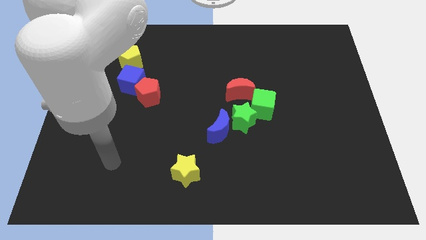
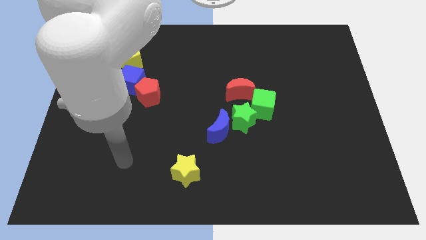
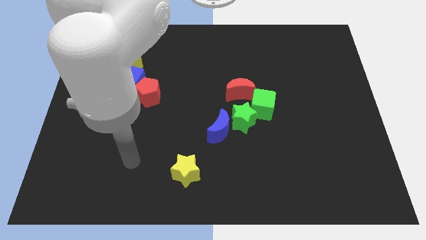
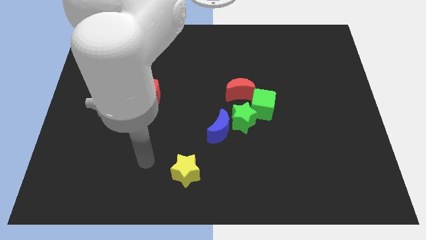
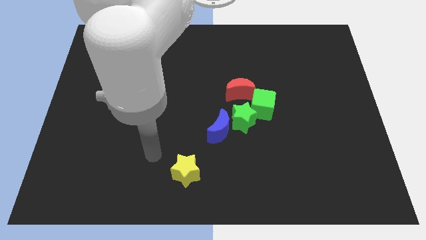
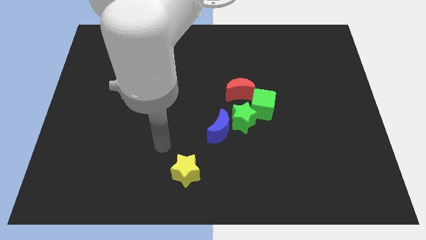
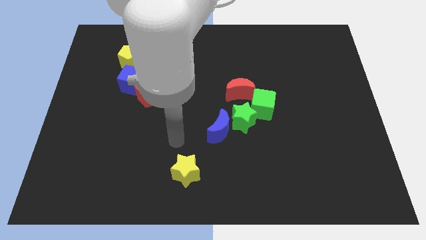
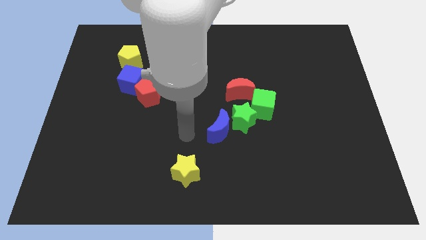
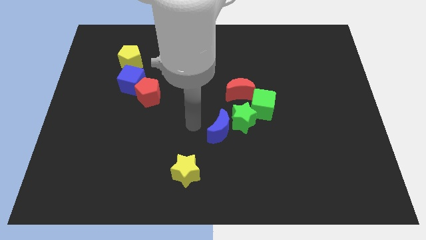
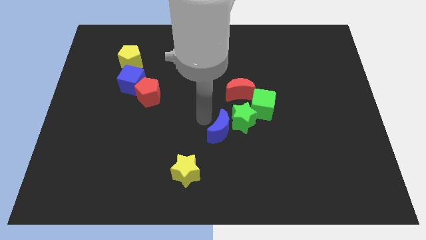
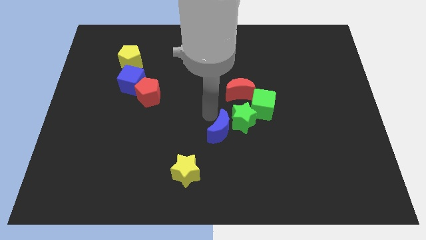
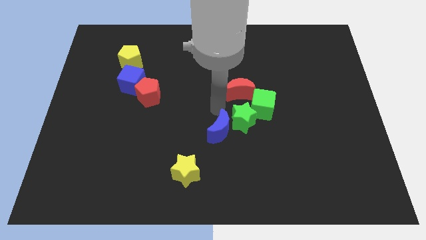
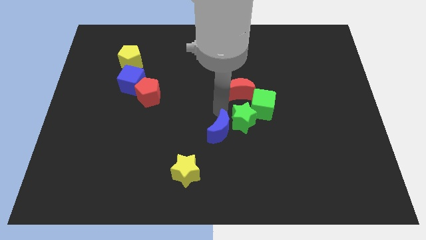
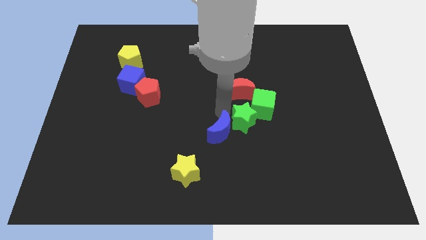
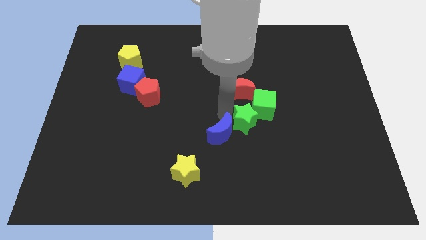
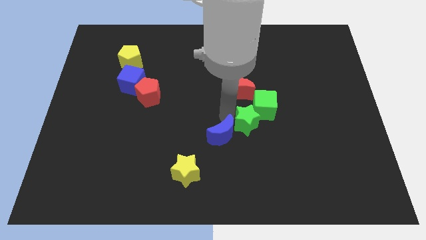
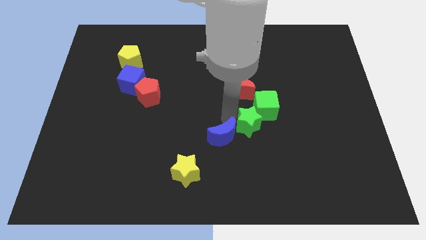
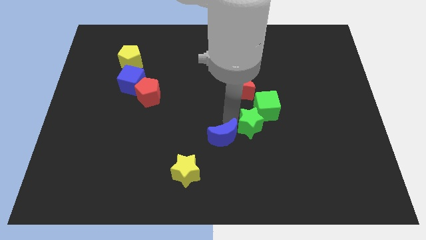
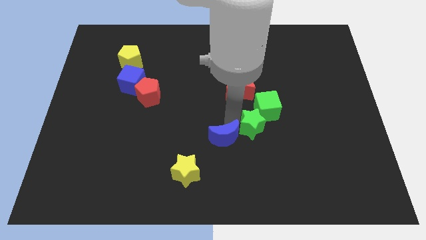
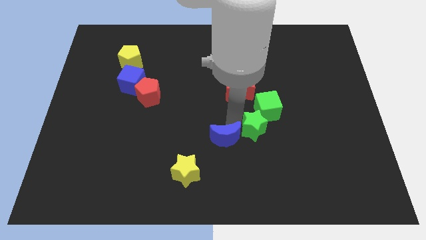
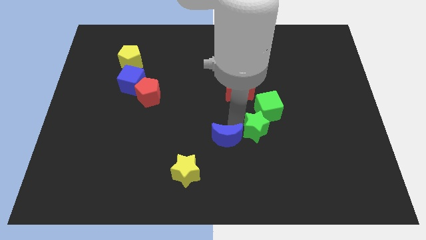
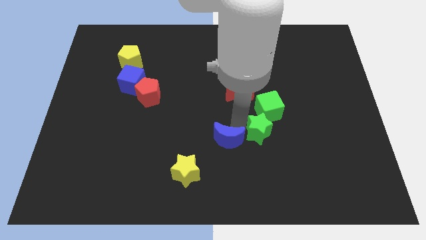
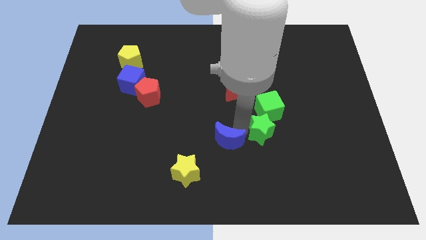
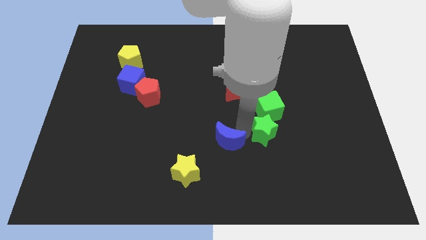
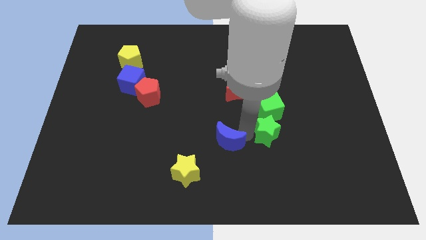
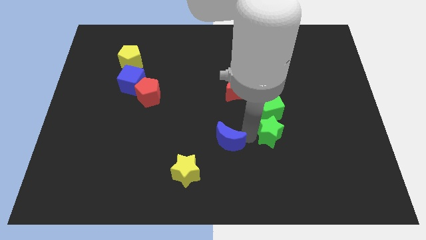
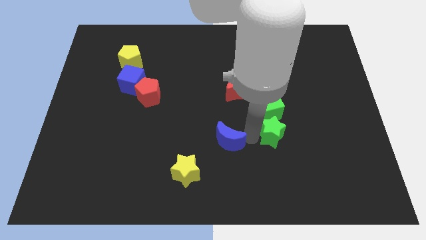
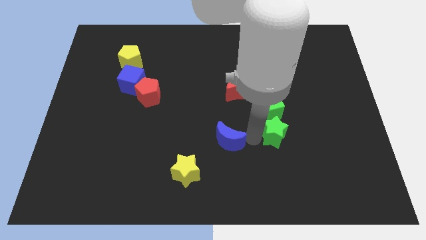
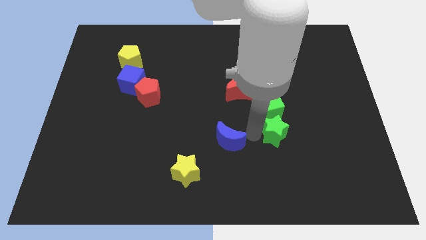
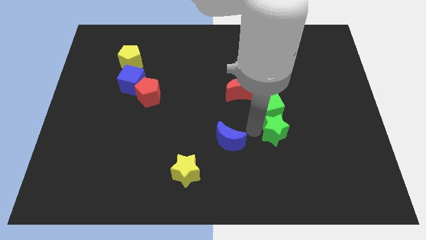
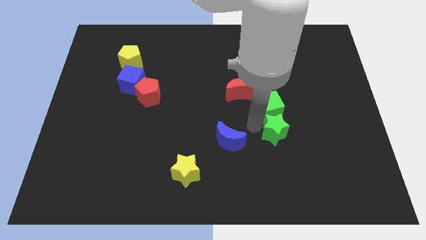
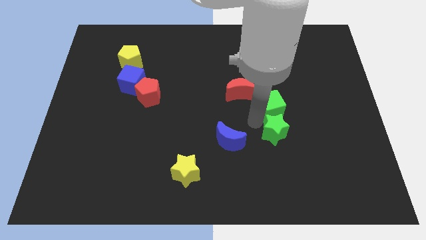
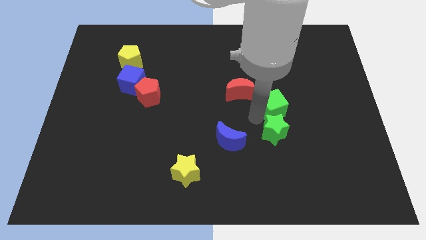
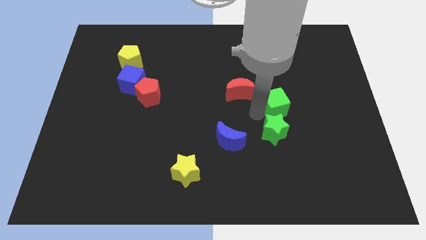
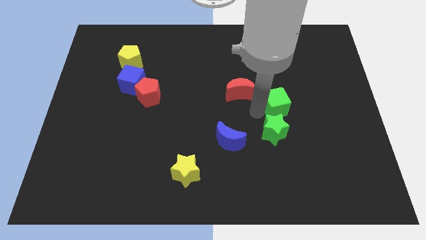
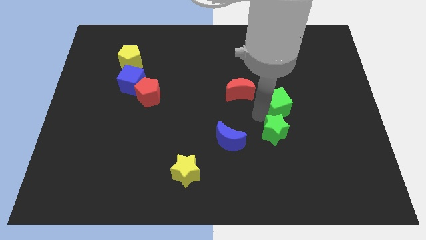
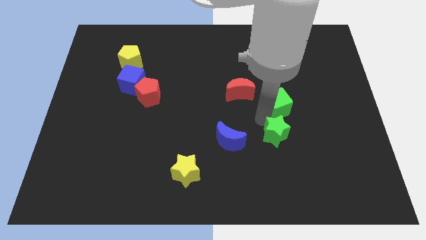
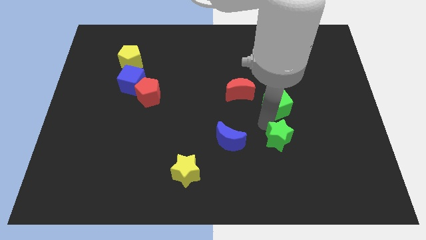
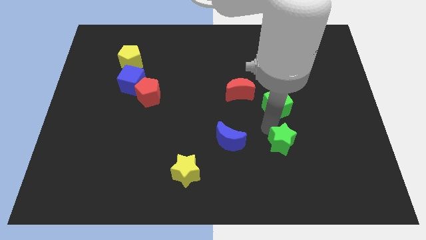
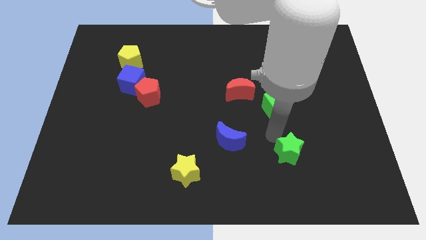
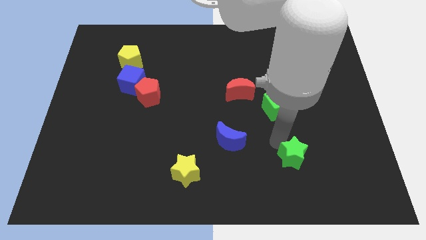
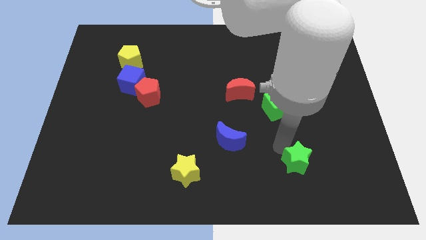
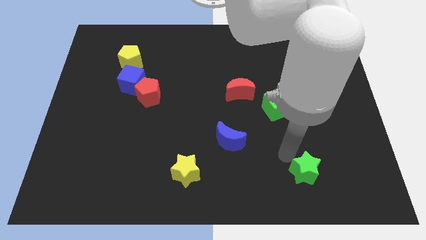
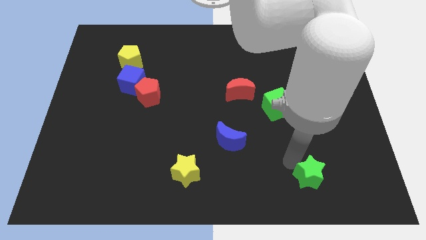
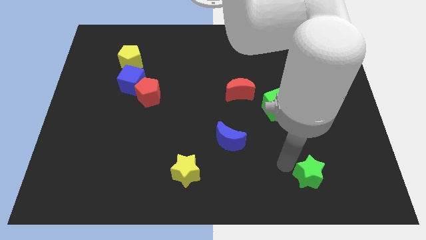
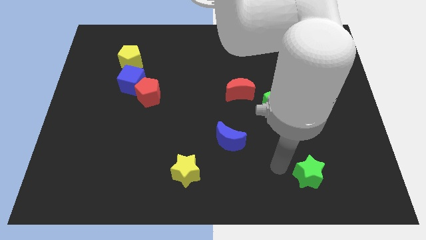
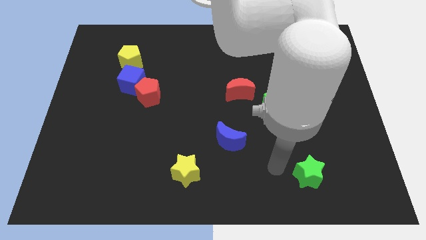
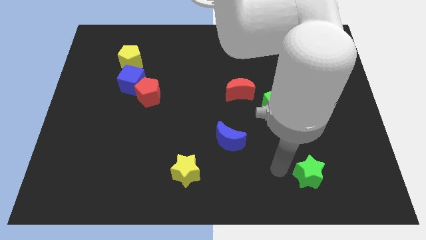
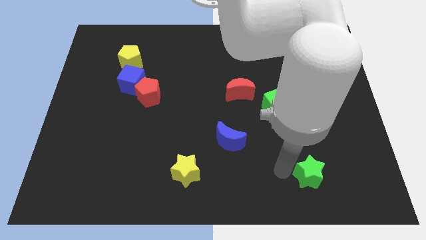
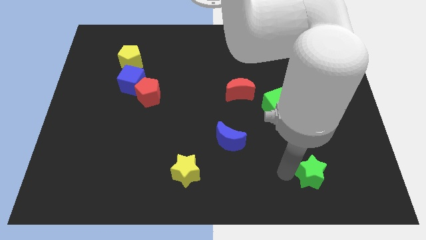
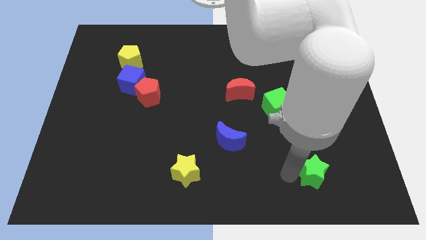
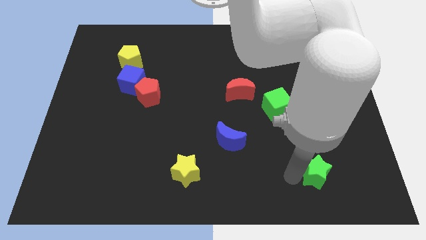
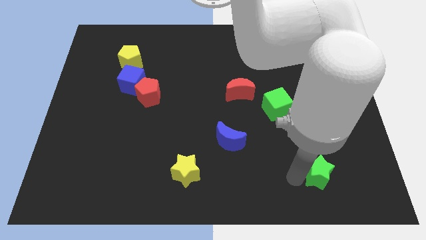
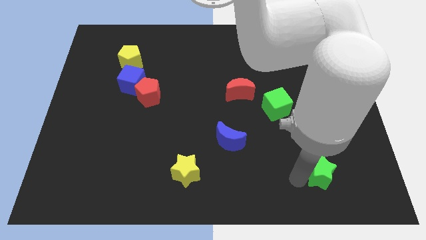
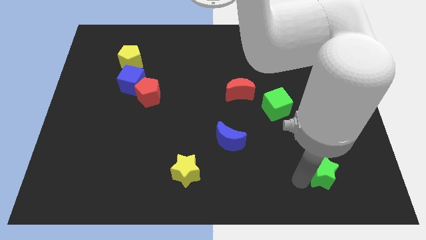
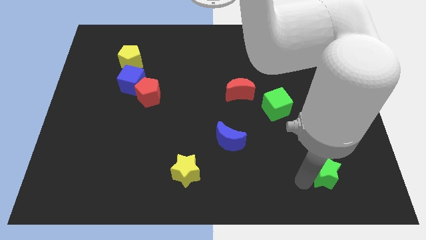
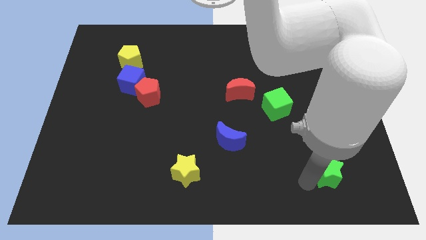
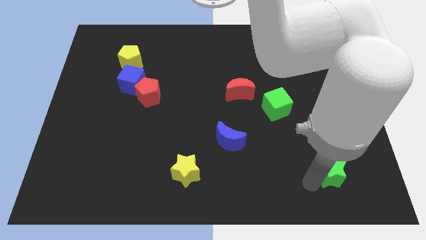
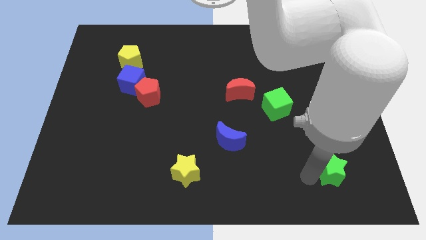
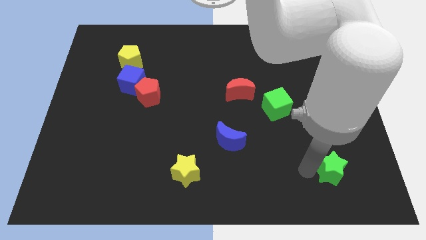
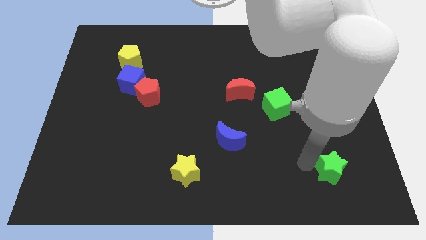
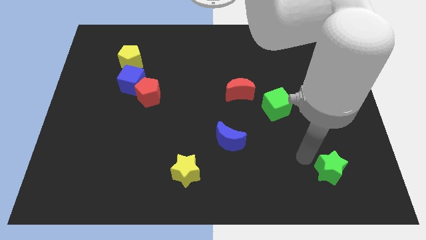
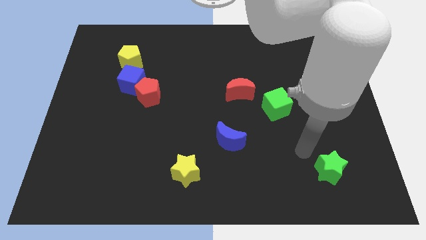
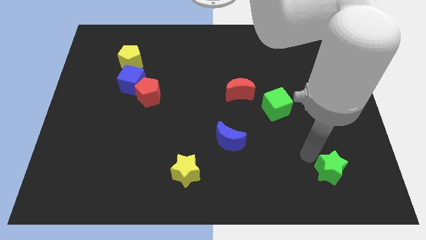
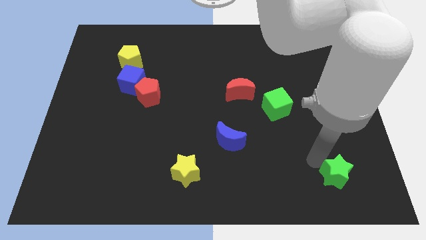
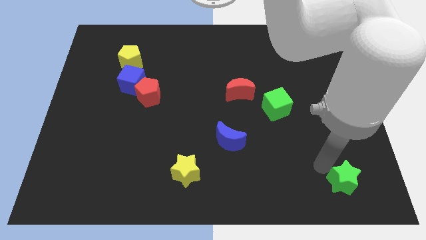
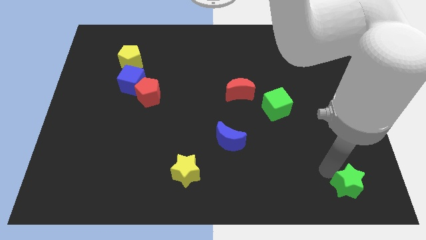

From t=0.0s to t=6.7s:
move the green star to the lower right corner

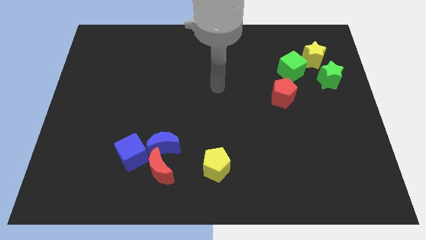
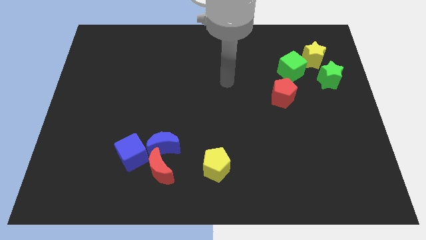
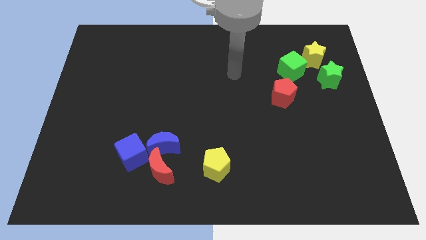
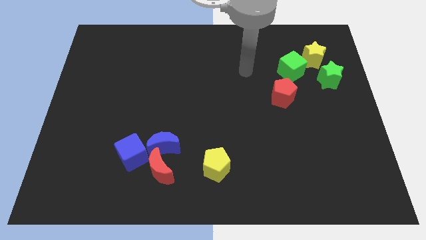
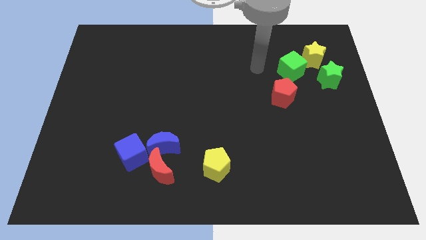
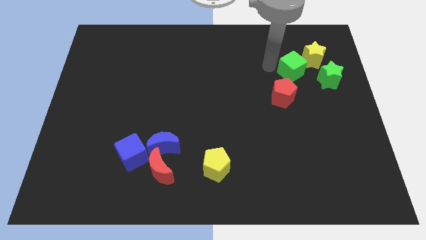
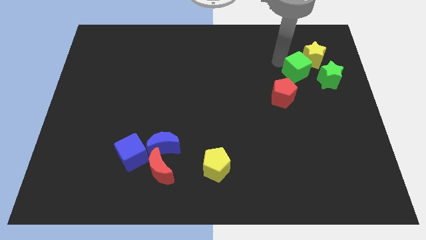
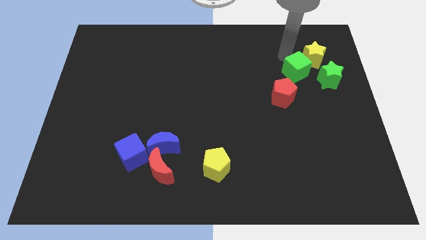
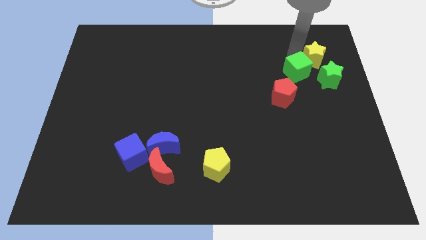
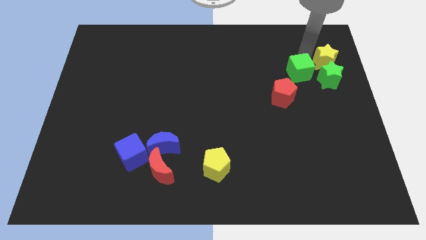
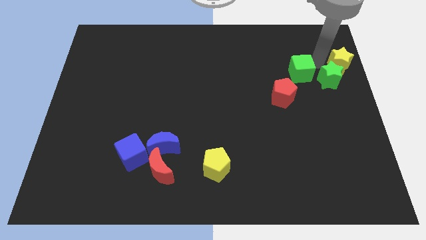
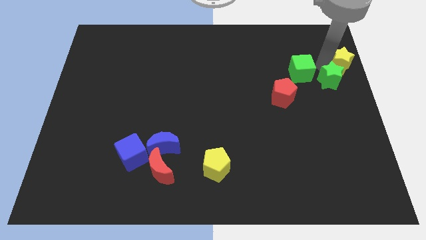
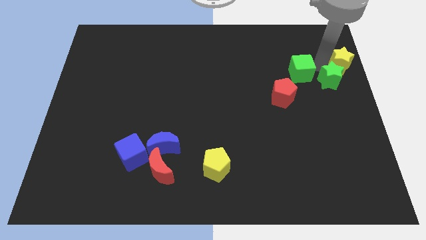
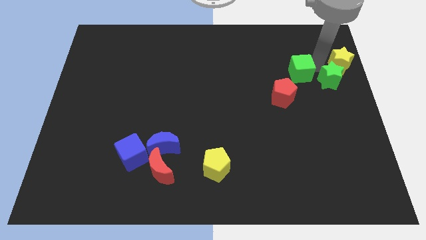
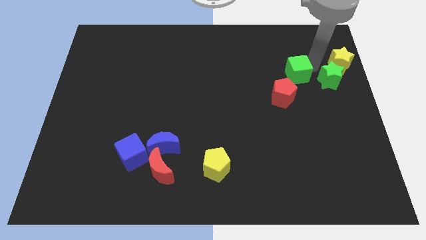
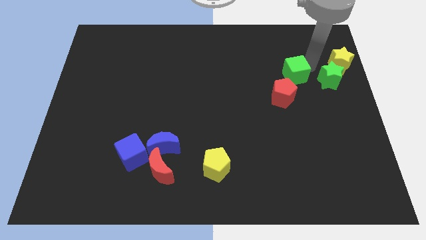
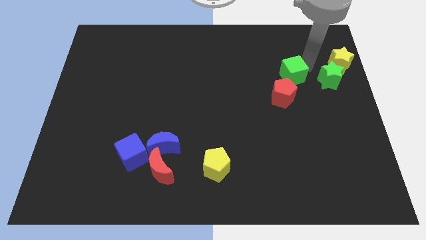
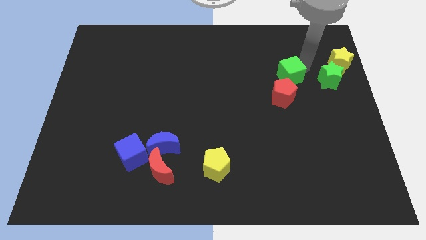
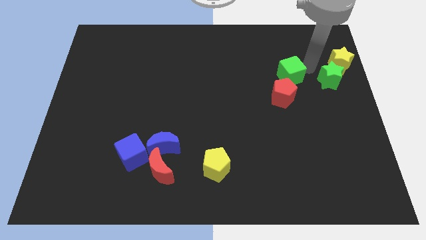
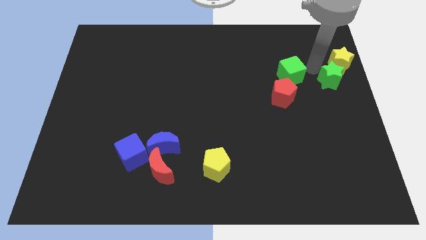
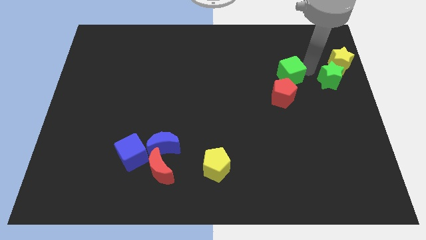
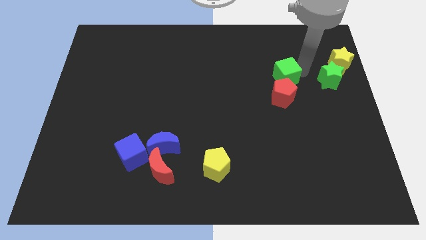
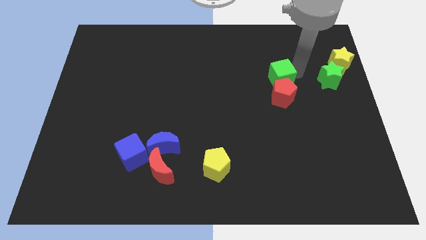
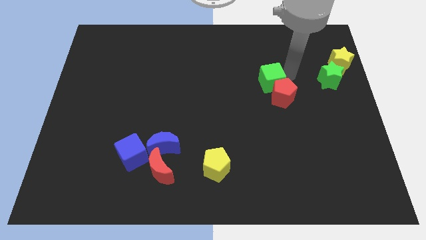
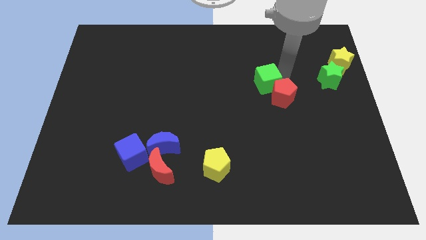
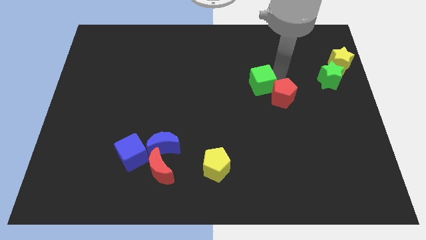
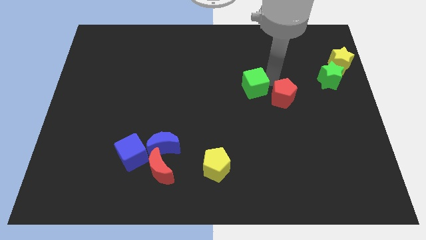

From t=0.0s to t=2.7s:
slide the green cube to the center of the board
